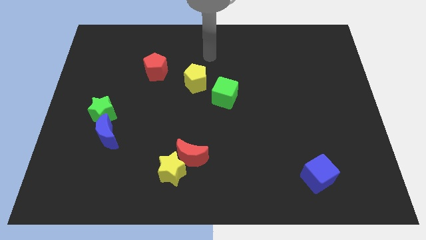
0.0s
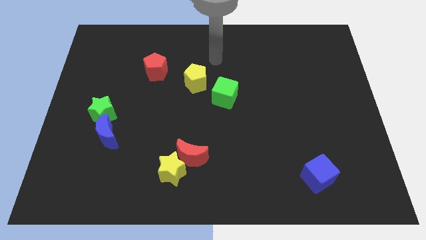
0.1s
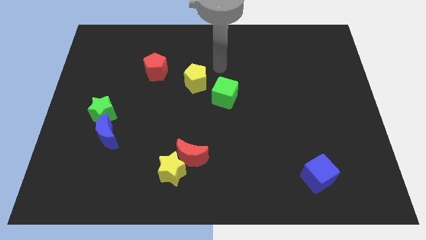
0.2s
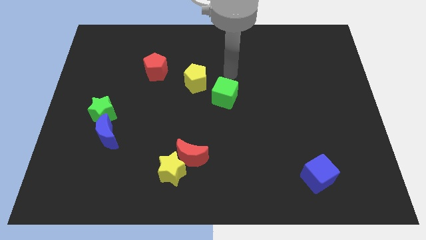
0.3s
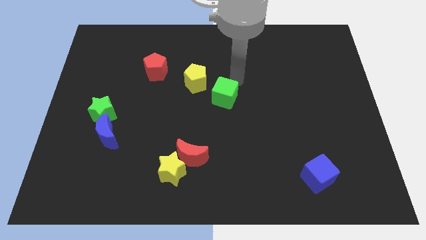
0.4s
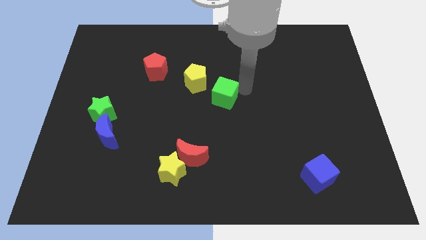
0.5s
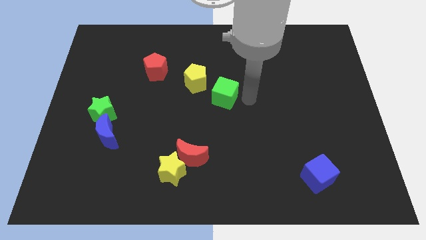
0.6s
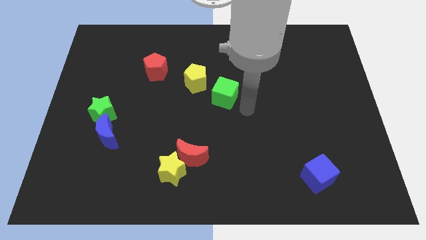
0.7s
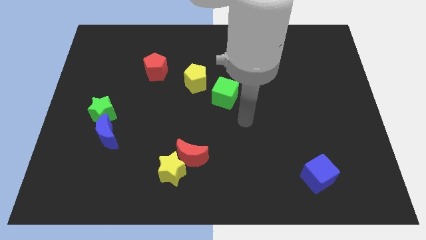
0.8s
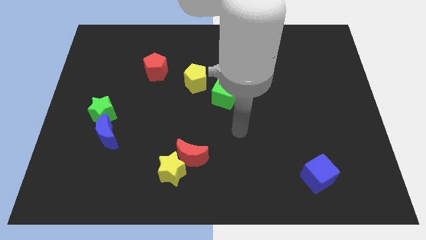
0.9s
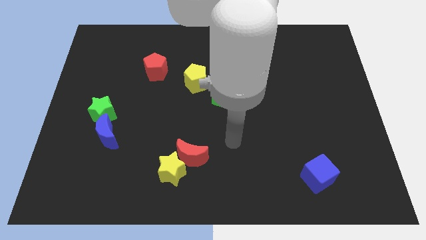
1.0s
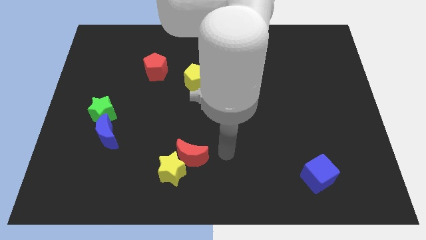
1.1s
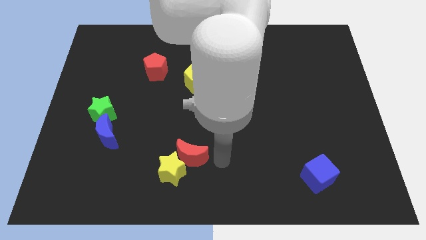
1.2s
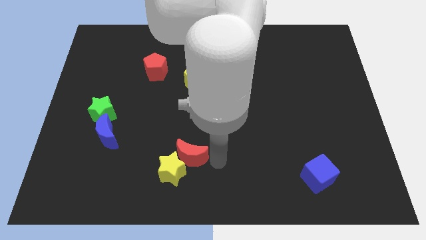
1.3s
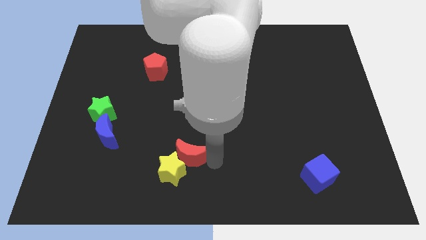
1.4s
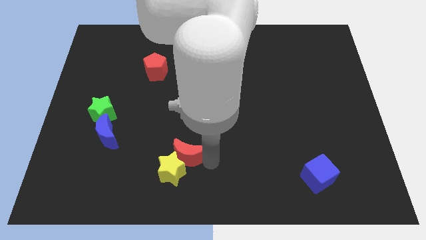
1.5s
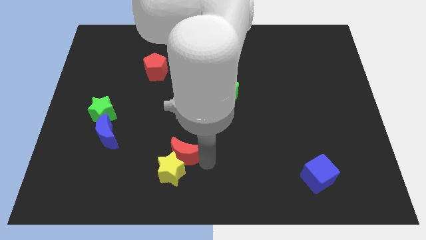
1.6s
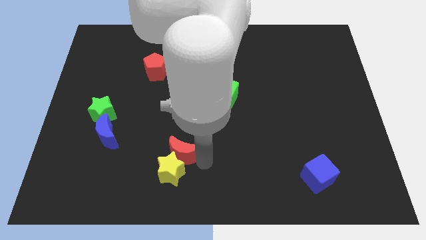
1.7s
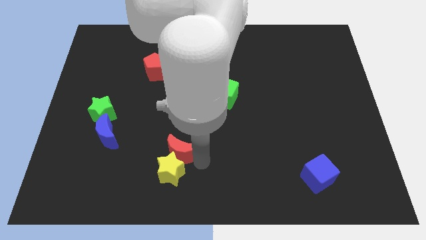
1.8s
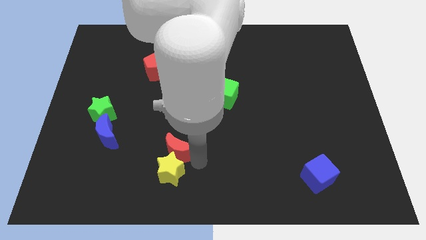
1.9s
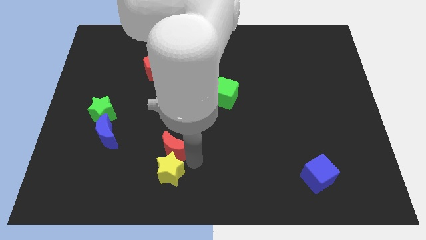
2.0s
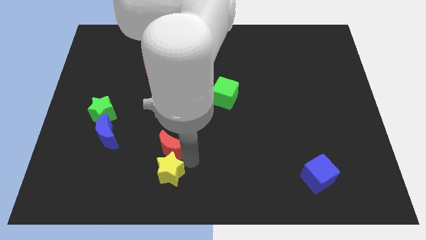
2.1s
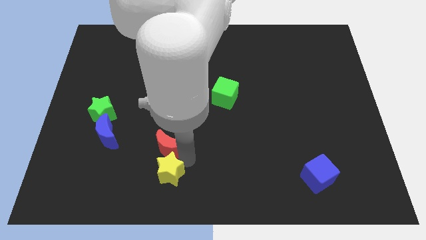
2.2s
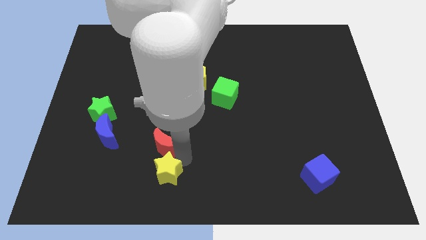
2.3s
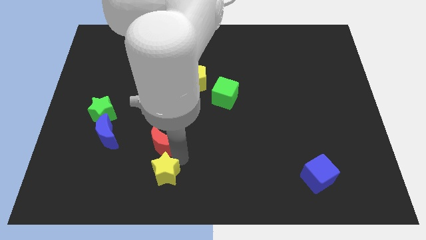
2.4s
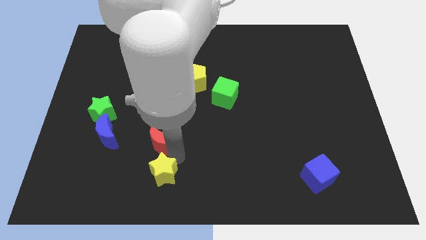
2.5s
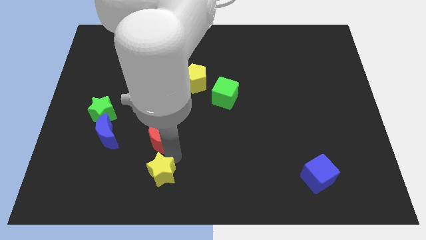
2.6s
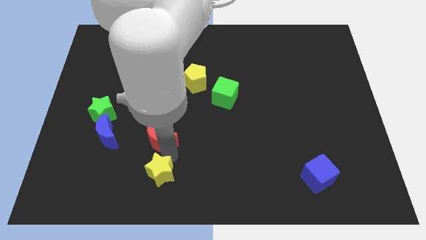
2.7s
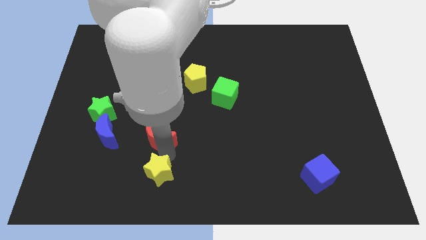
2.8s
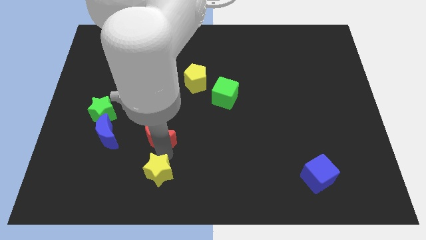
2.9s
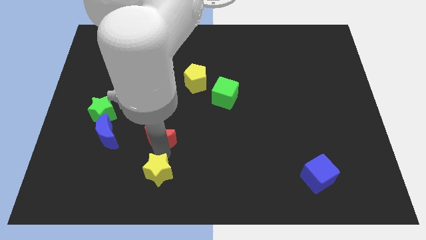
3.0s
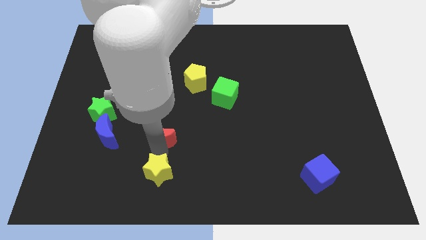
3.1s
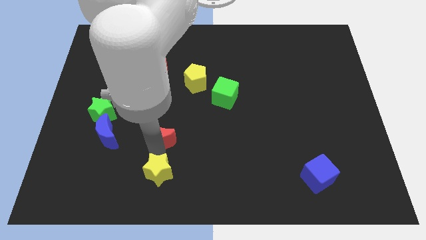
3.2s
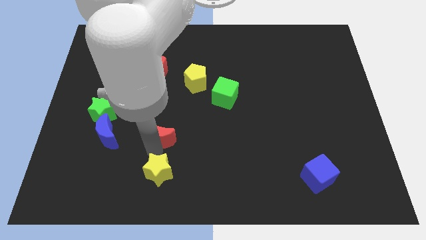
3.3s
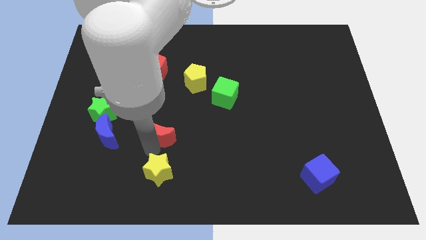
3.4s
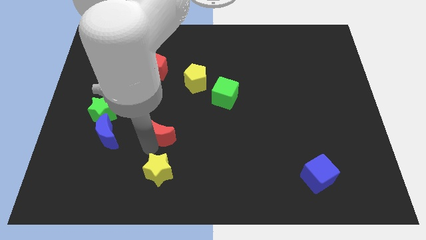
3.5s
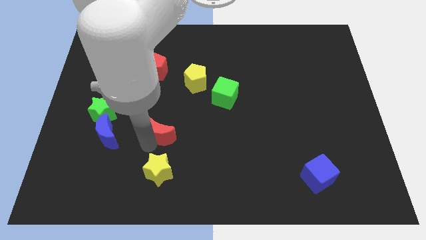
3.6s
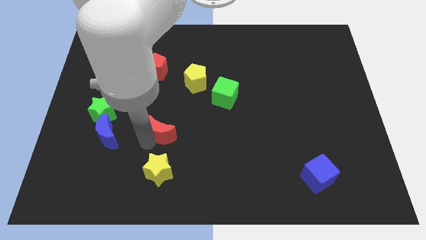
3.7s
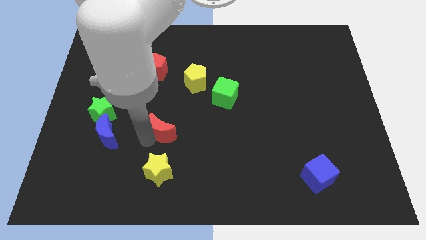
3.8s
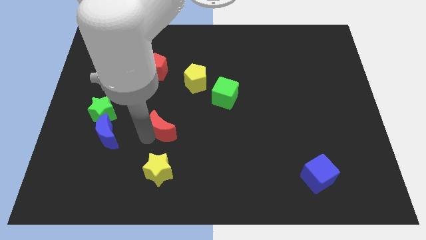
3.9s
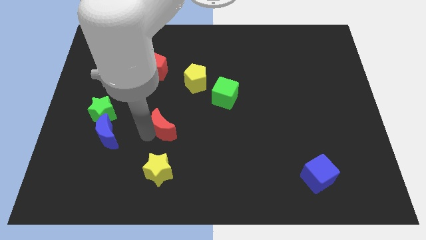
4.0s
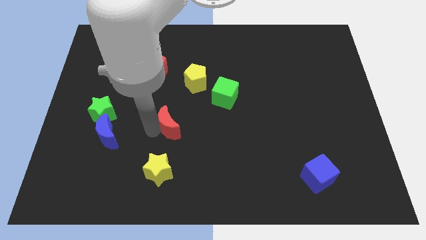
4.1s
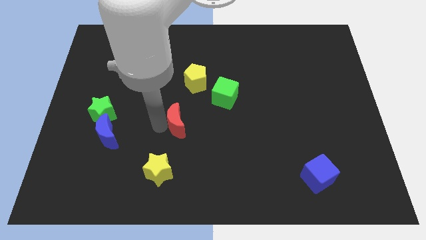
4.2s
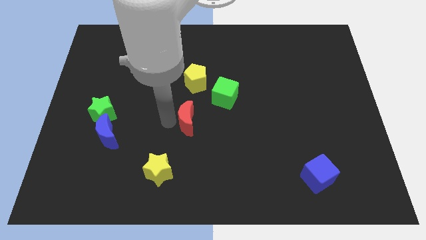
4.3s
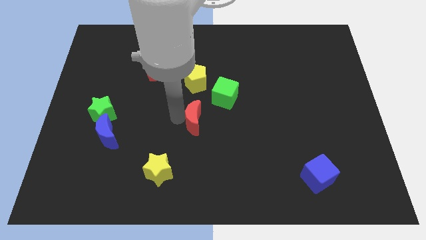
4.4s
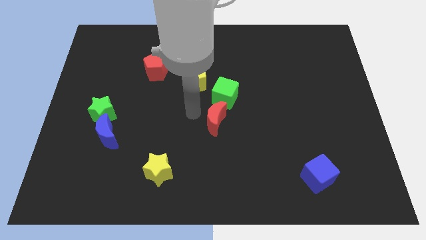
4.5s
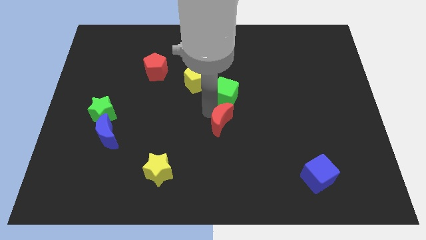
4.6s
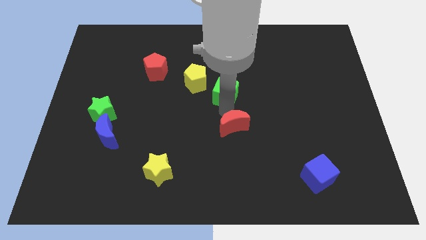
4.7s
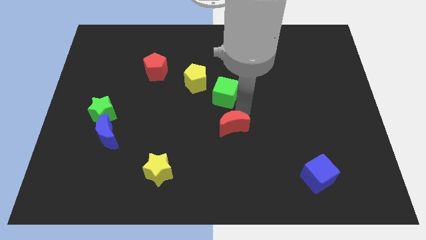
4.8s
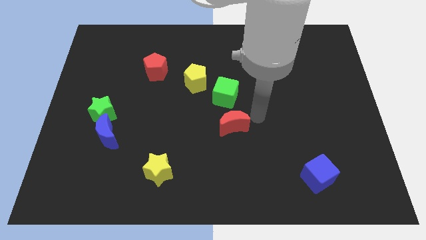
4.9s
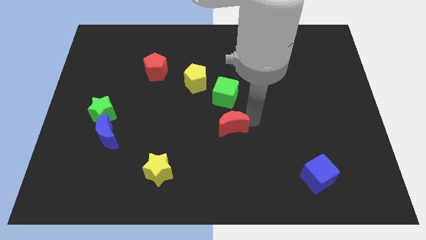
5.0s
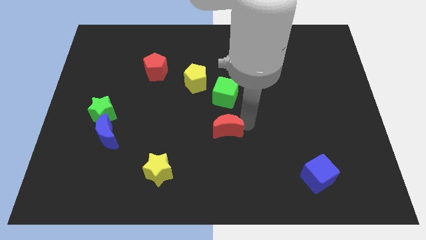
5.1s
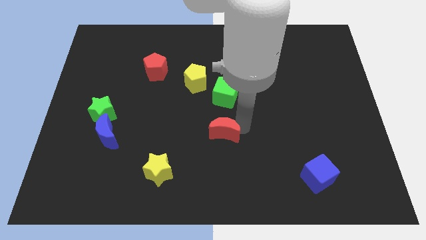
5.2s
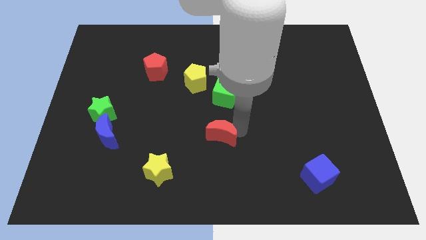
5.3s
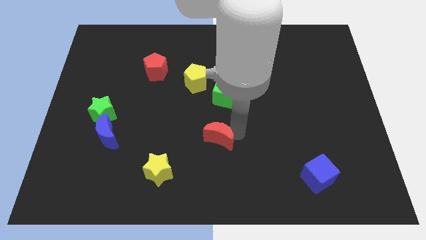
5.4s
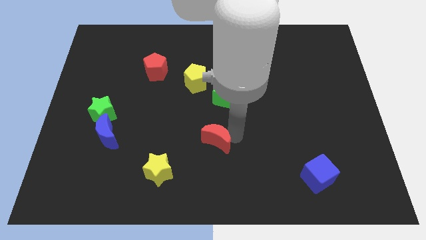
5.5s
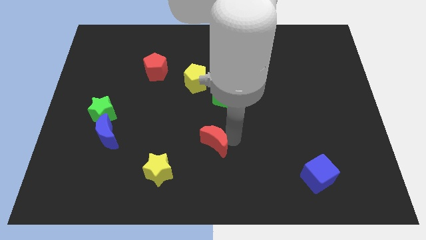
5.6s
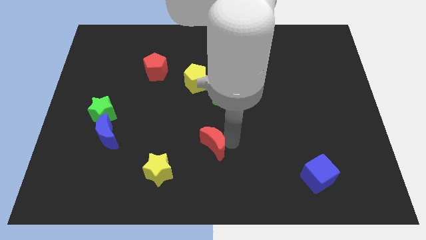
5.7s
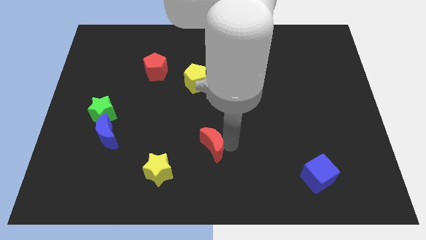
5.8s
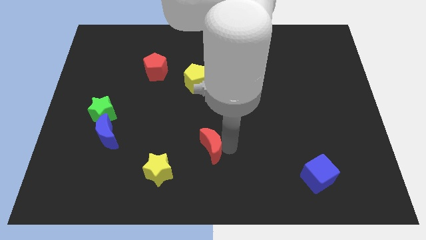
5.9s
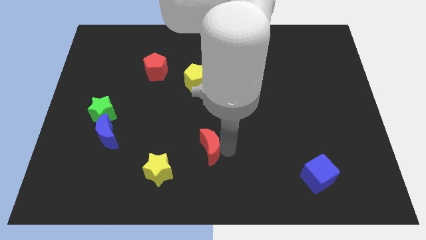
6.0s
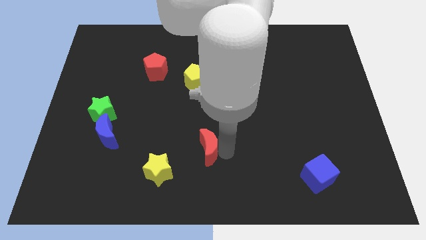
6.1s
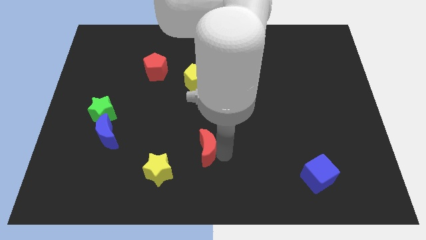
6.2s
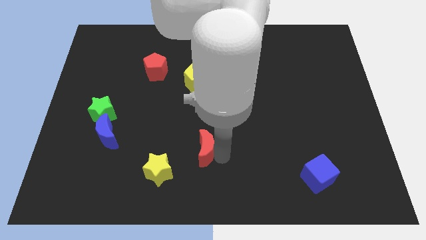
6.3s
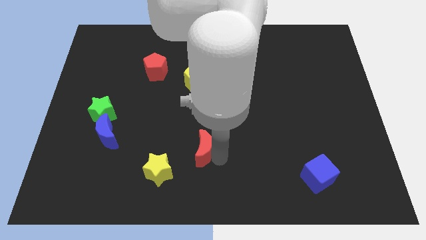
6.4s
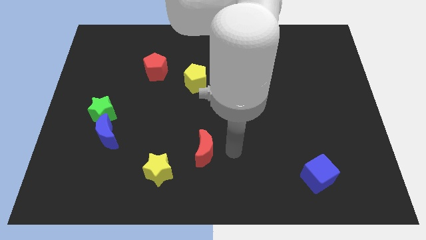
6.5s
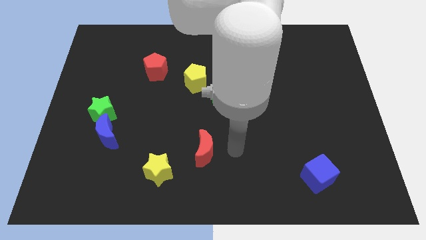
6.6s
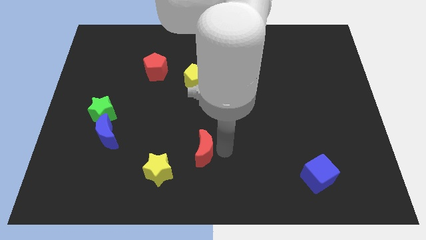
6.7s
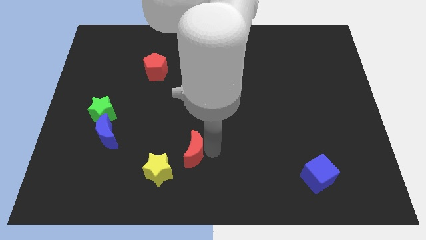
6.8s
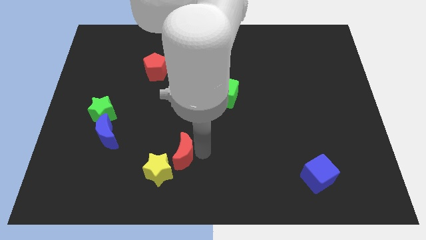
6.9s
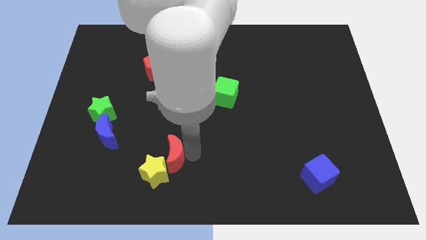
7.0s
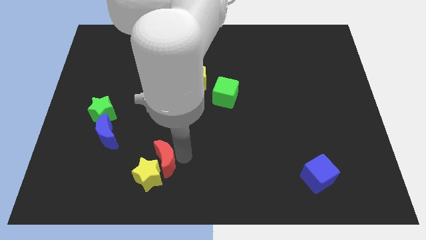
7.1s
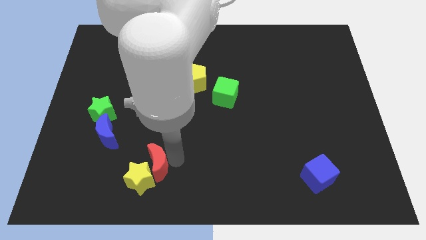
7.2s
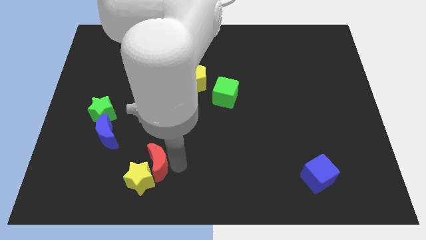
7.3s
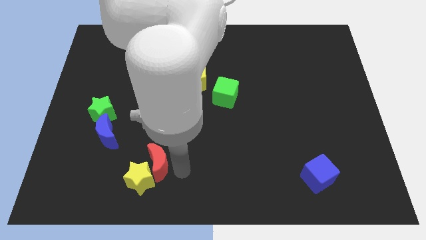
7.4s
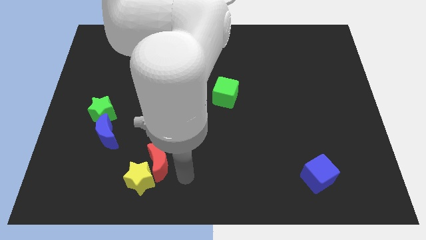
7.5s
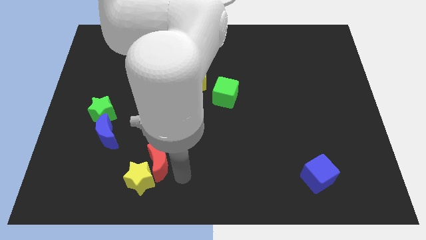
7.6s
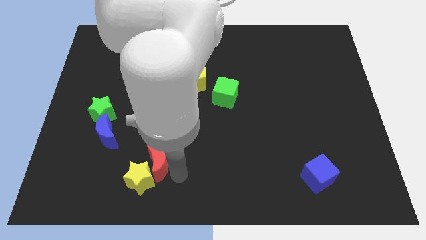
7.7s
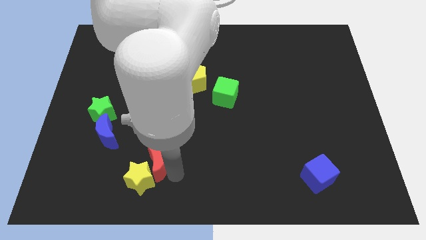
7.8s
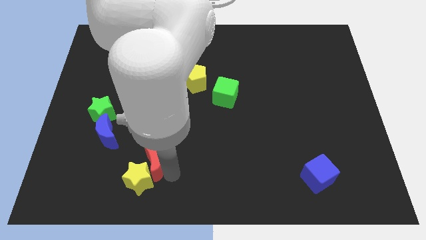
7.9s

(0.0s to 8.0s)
slide the red moon somewhat to the left
